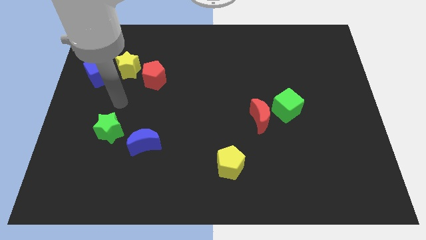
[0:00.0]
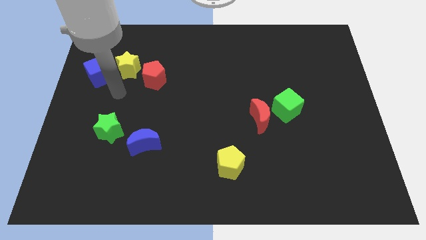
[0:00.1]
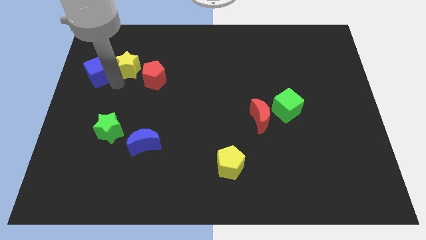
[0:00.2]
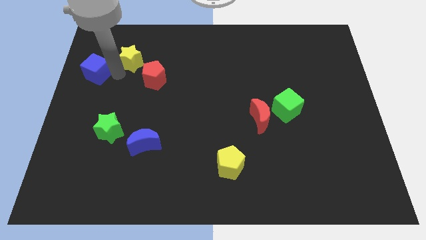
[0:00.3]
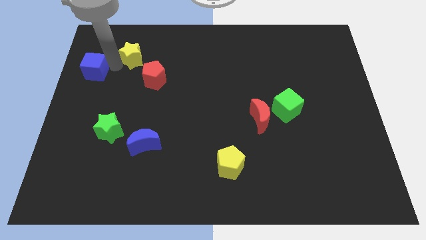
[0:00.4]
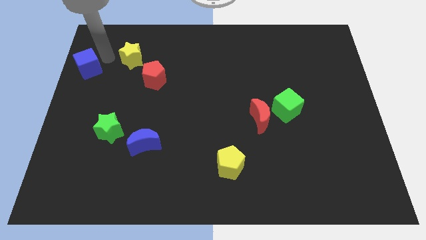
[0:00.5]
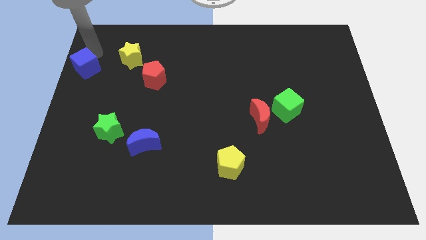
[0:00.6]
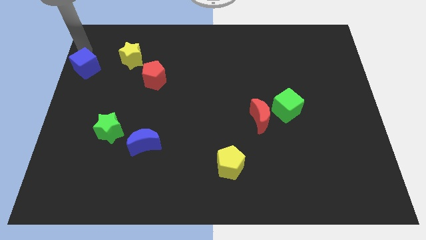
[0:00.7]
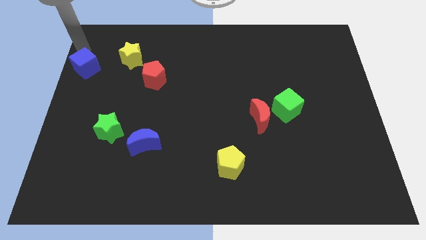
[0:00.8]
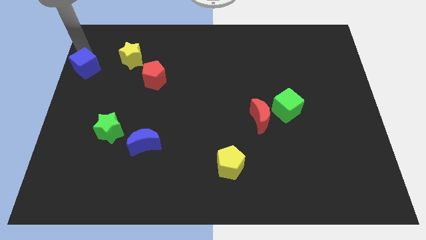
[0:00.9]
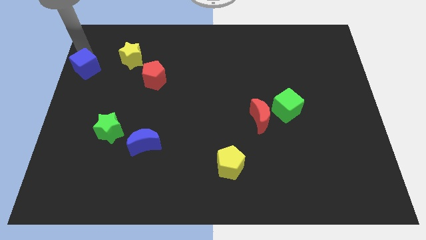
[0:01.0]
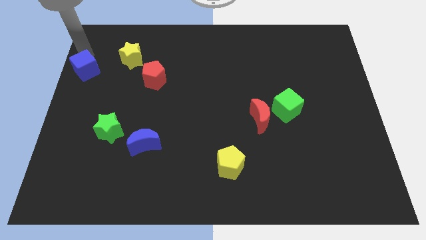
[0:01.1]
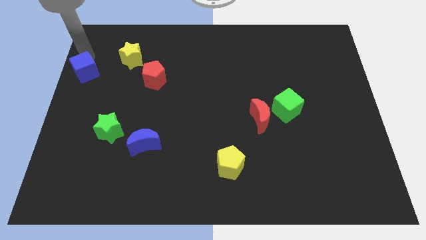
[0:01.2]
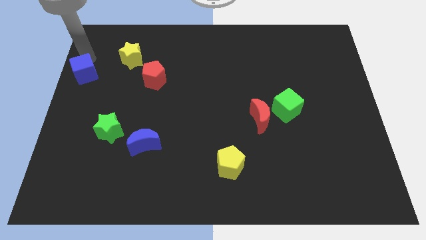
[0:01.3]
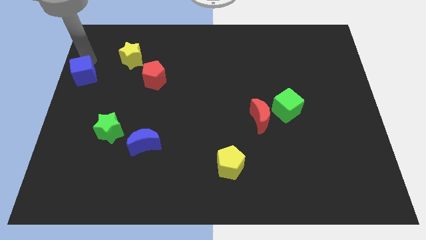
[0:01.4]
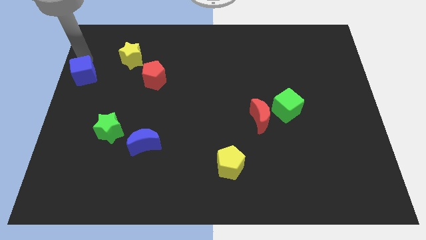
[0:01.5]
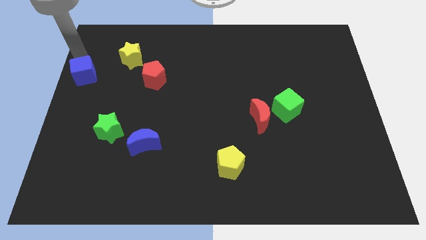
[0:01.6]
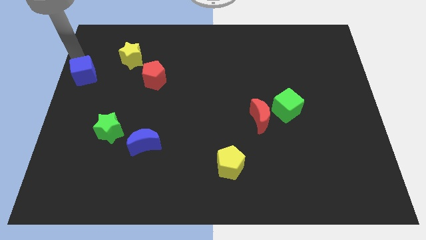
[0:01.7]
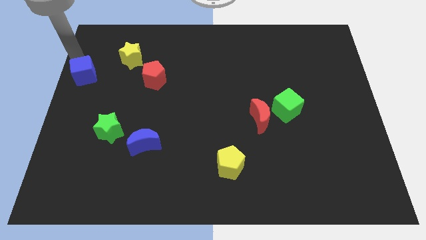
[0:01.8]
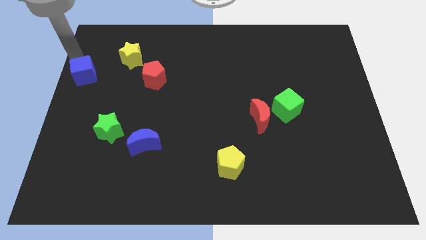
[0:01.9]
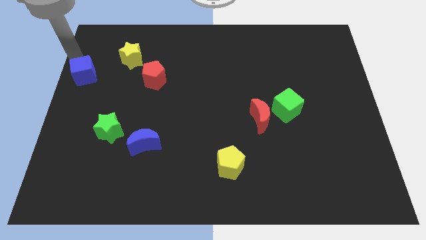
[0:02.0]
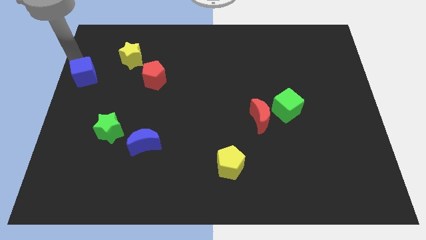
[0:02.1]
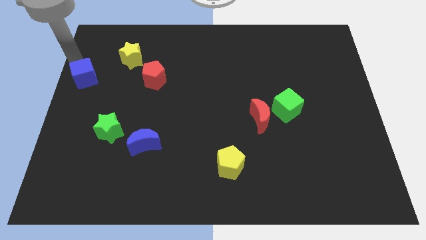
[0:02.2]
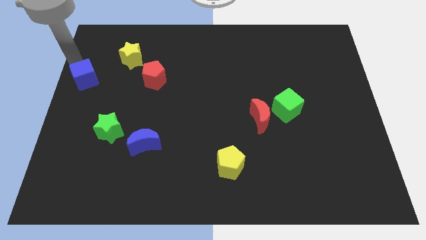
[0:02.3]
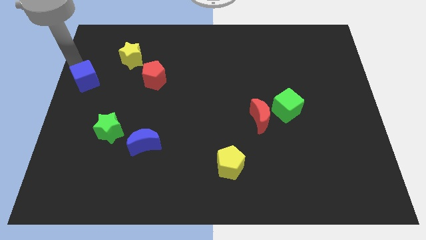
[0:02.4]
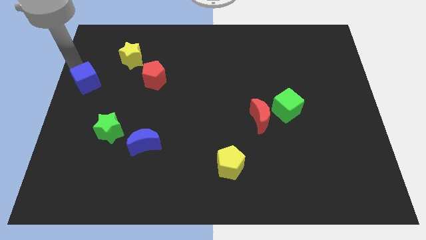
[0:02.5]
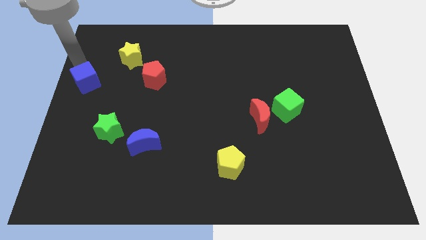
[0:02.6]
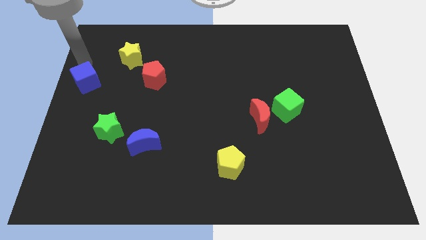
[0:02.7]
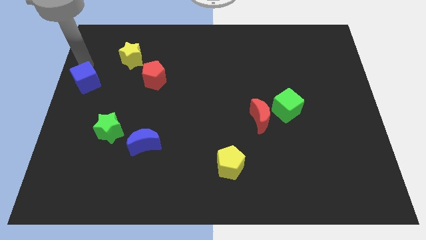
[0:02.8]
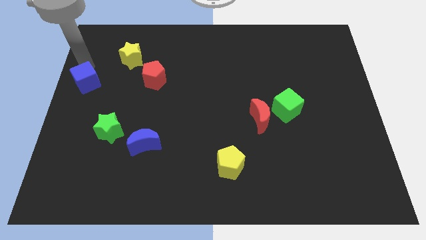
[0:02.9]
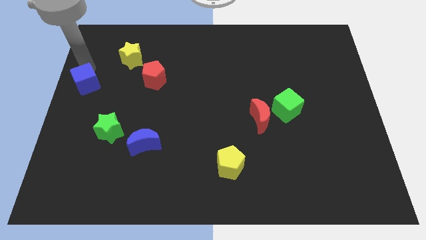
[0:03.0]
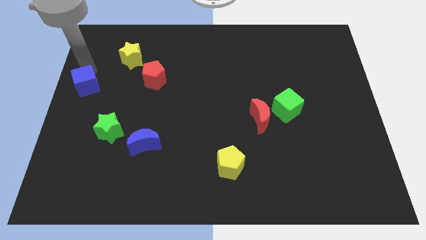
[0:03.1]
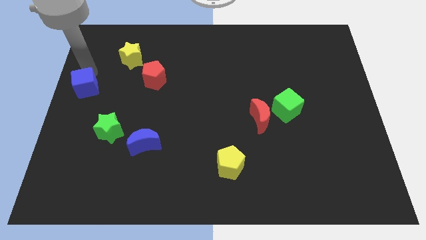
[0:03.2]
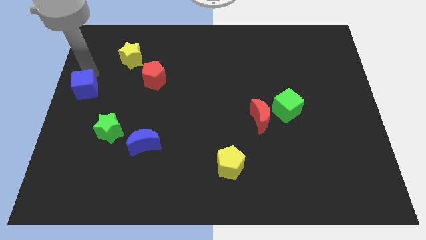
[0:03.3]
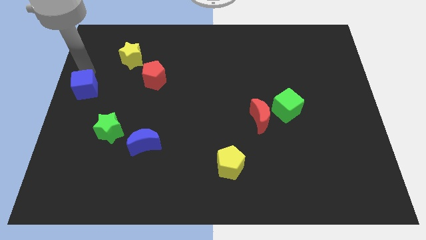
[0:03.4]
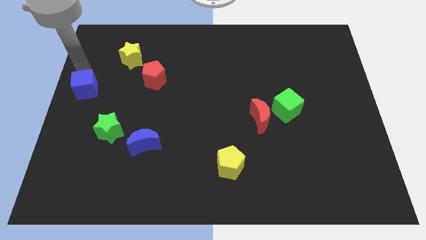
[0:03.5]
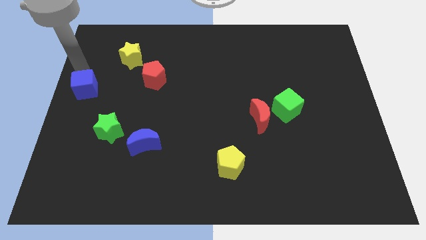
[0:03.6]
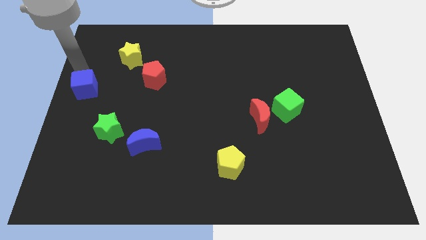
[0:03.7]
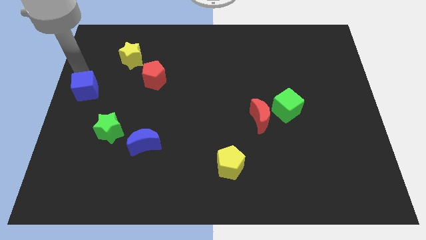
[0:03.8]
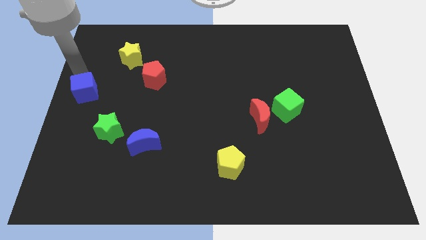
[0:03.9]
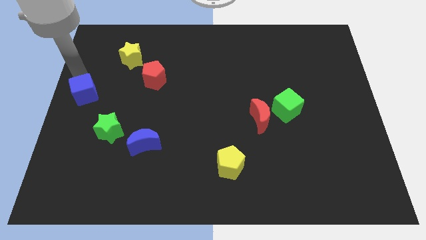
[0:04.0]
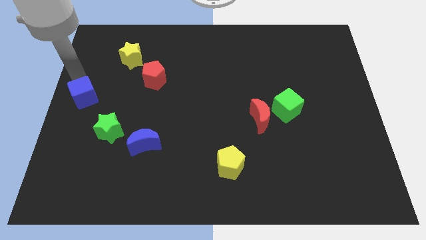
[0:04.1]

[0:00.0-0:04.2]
push the blue cube down a bit

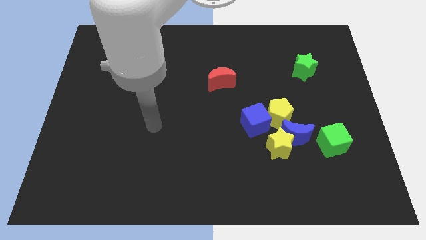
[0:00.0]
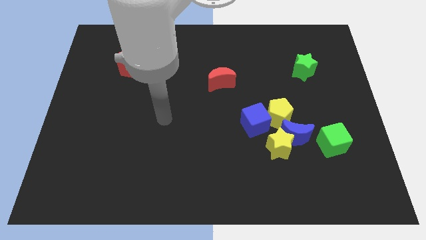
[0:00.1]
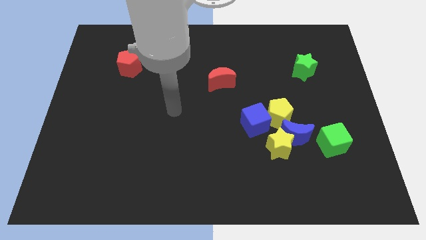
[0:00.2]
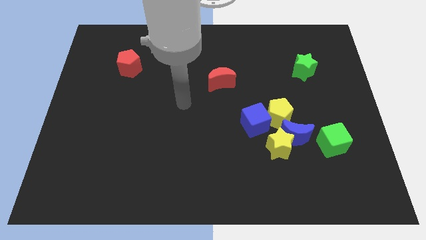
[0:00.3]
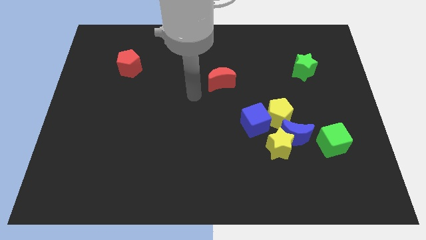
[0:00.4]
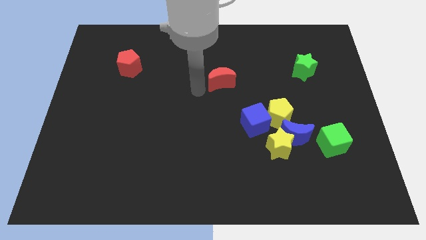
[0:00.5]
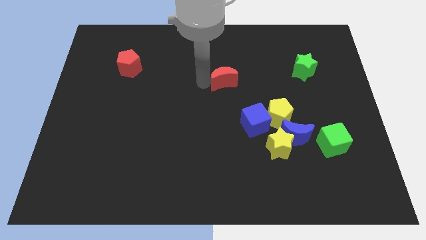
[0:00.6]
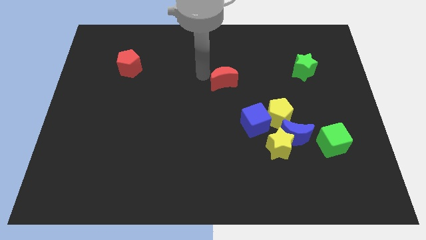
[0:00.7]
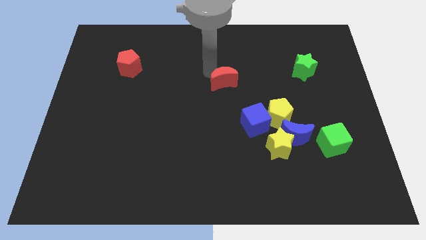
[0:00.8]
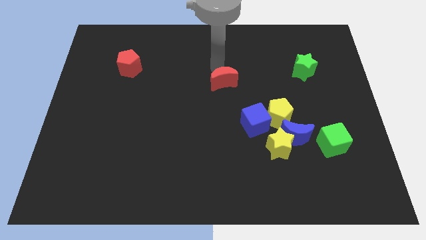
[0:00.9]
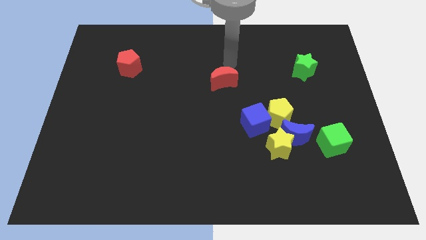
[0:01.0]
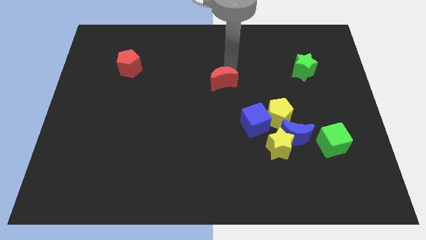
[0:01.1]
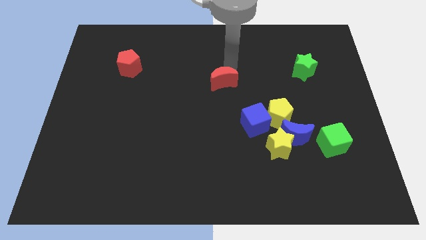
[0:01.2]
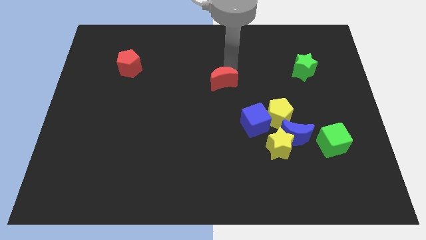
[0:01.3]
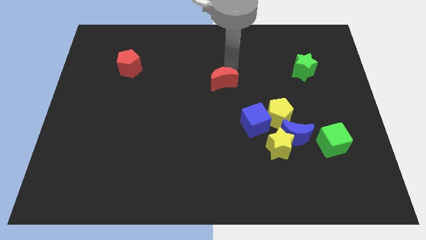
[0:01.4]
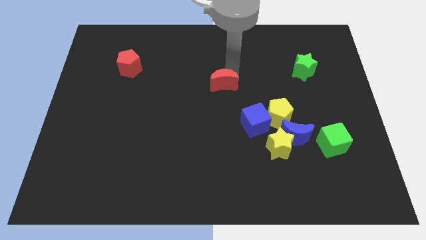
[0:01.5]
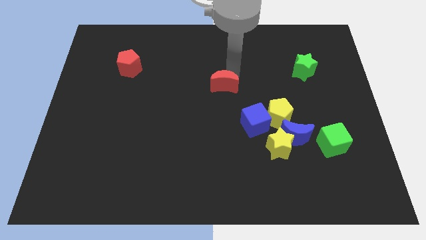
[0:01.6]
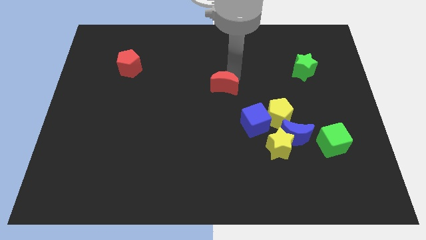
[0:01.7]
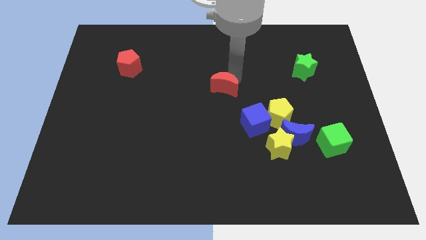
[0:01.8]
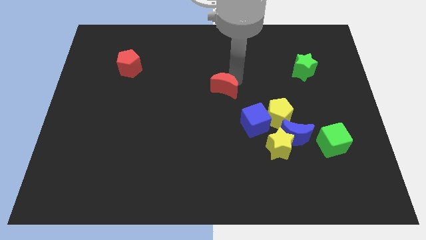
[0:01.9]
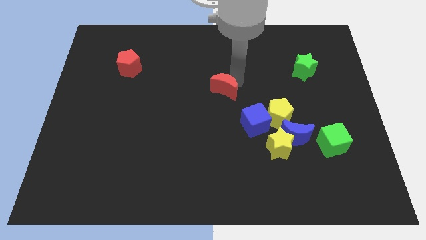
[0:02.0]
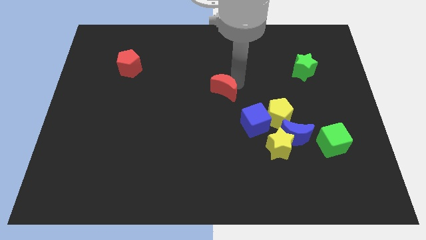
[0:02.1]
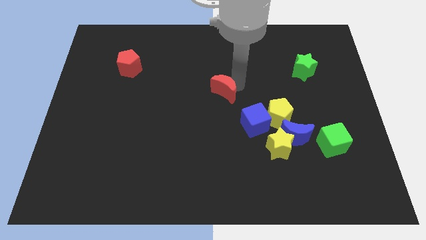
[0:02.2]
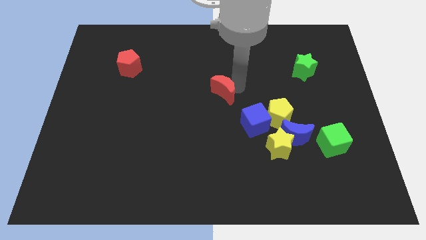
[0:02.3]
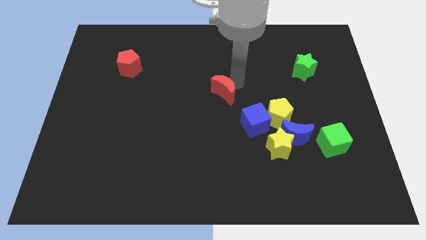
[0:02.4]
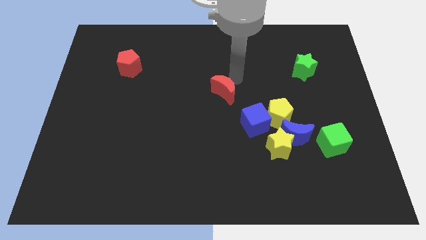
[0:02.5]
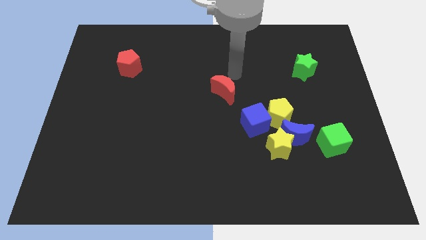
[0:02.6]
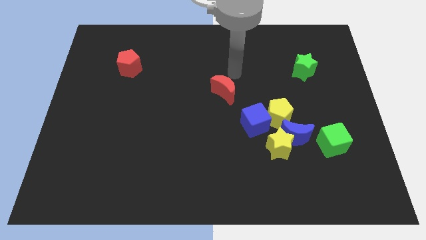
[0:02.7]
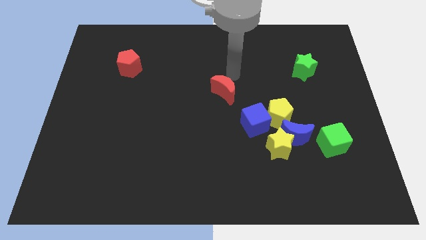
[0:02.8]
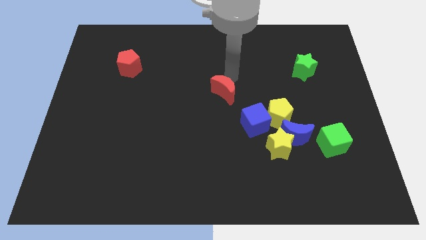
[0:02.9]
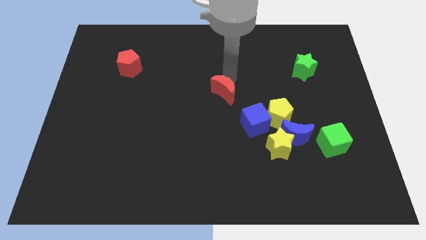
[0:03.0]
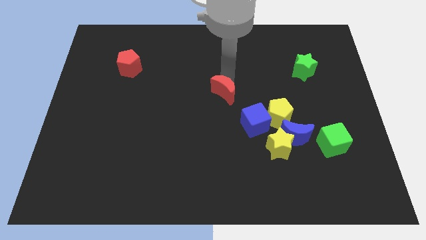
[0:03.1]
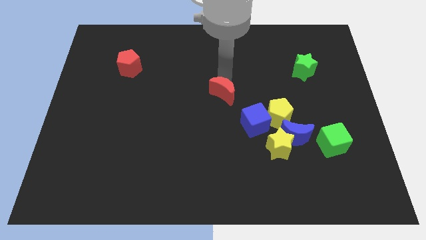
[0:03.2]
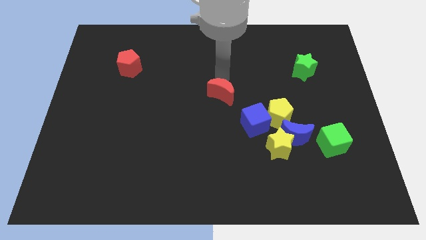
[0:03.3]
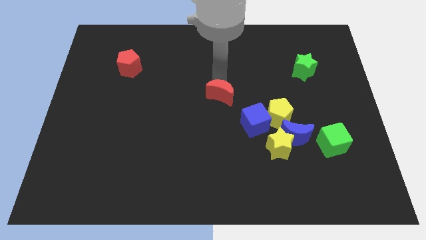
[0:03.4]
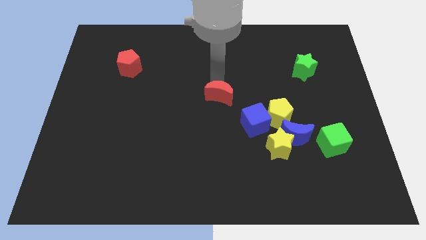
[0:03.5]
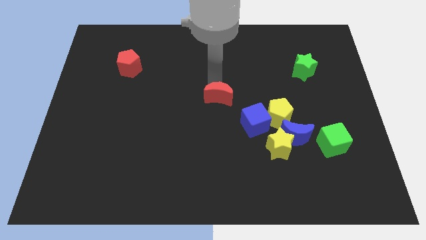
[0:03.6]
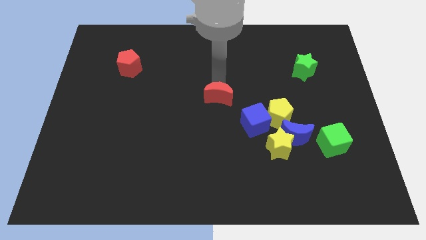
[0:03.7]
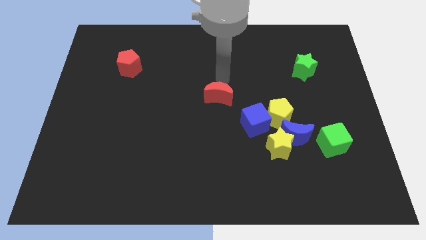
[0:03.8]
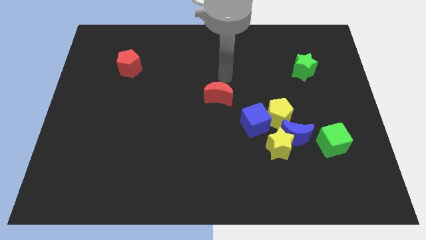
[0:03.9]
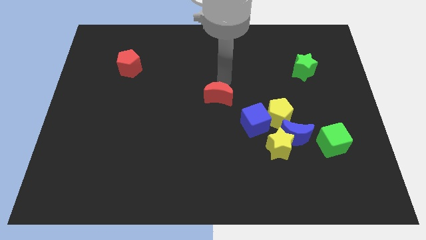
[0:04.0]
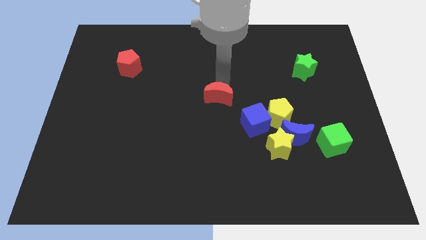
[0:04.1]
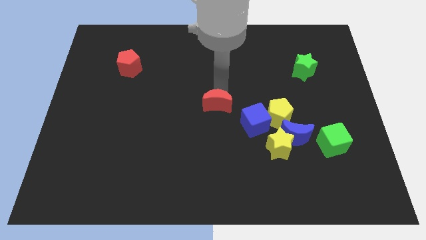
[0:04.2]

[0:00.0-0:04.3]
move the red moon somewhat downwards

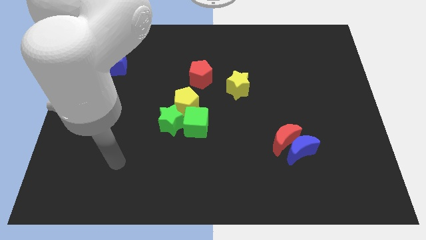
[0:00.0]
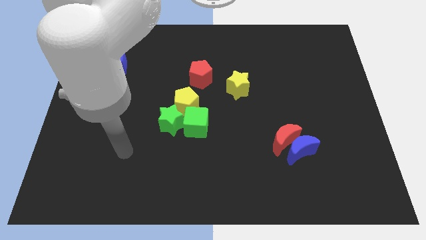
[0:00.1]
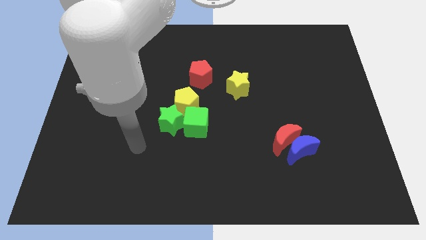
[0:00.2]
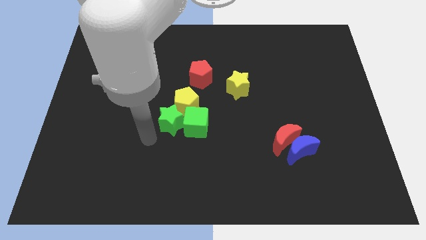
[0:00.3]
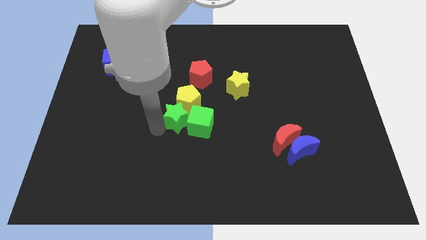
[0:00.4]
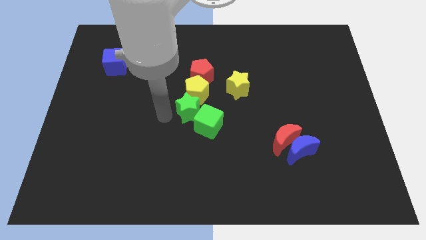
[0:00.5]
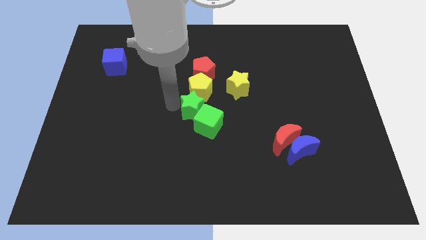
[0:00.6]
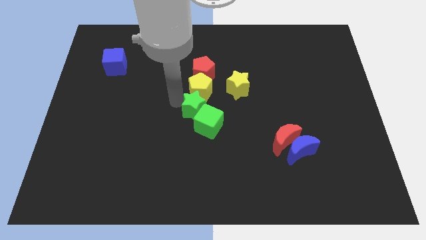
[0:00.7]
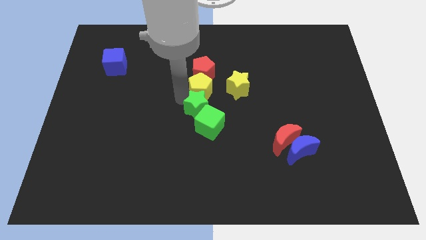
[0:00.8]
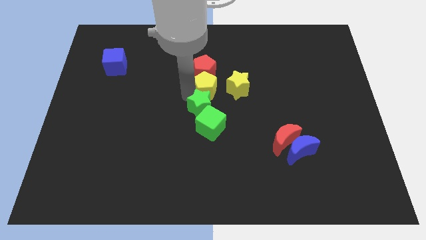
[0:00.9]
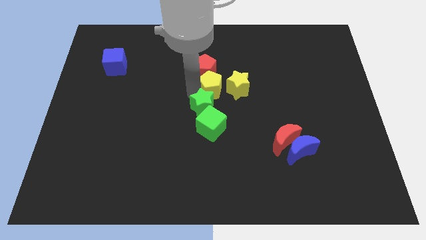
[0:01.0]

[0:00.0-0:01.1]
move the yellow pentagon a bit up and then right
